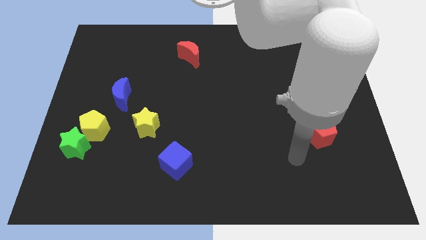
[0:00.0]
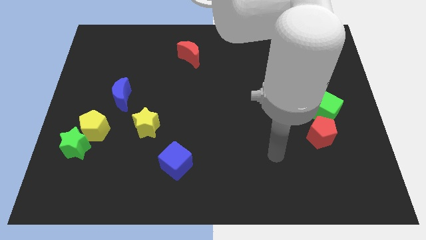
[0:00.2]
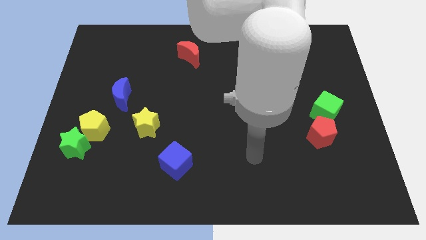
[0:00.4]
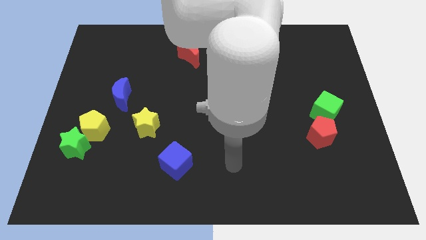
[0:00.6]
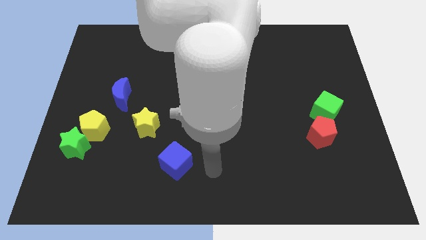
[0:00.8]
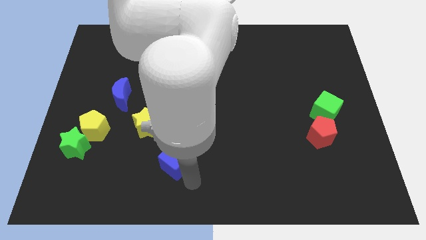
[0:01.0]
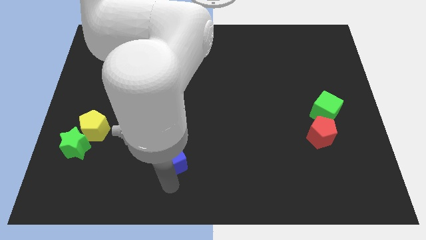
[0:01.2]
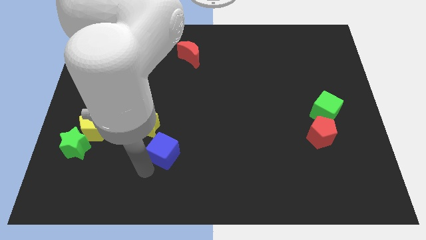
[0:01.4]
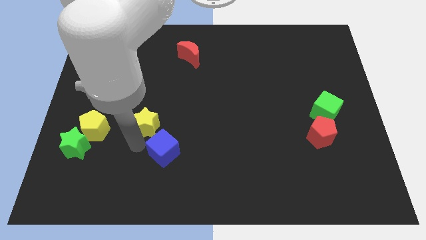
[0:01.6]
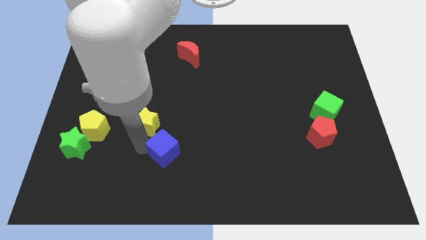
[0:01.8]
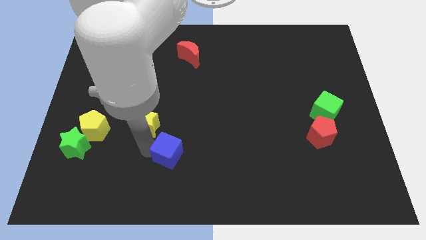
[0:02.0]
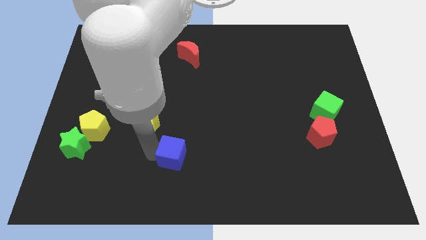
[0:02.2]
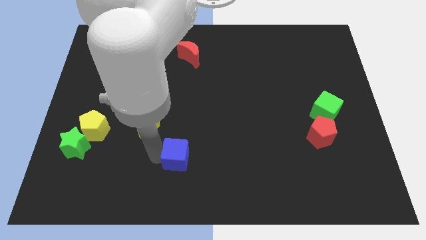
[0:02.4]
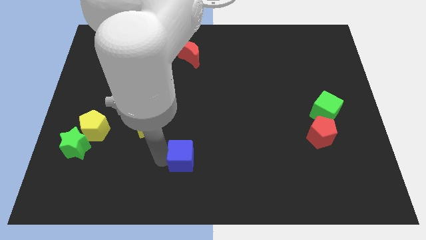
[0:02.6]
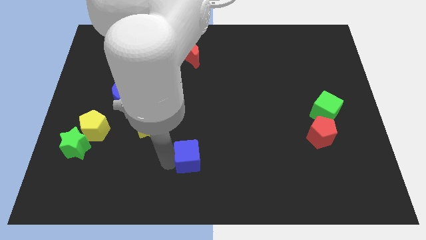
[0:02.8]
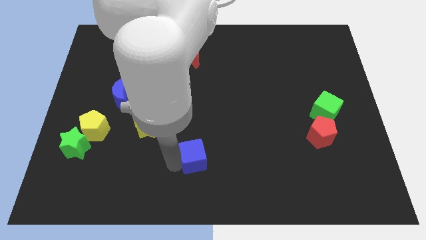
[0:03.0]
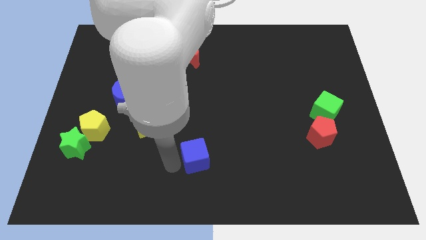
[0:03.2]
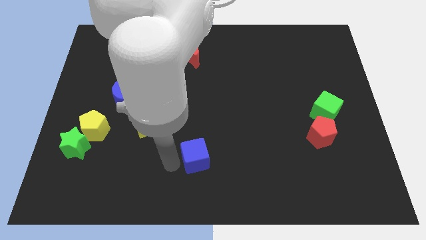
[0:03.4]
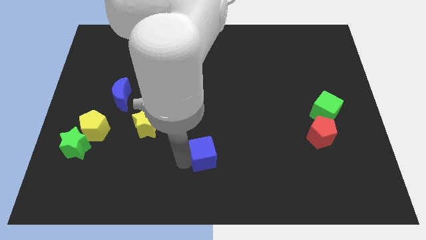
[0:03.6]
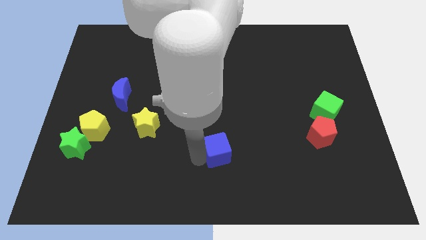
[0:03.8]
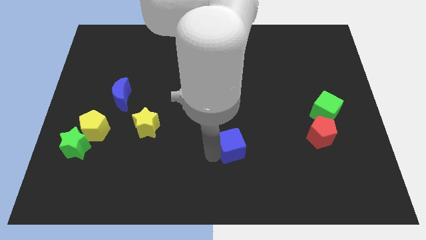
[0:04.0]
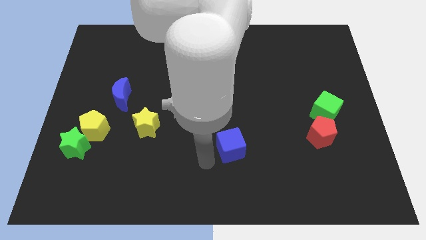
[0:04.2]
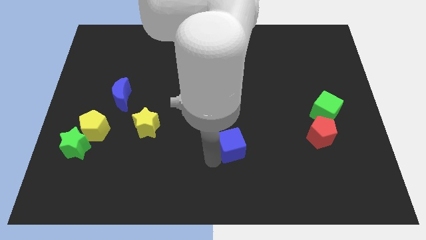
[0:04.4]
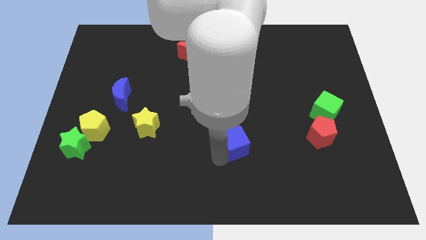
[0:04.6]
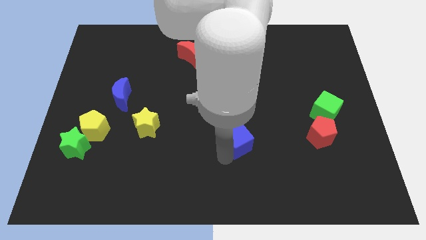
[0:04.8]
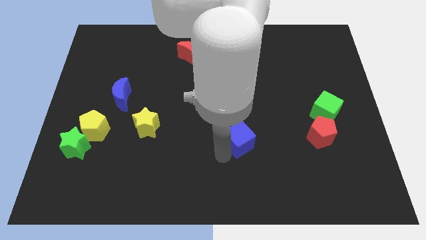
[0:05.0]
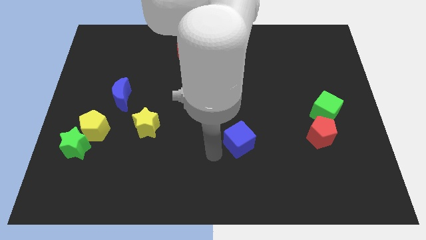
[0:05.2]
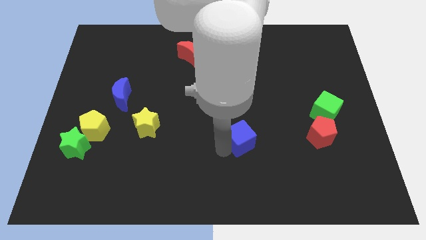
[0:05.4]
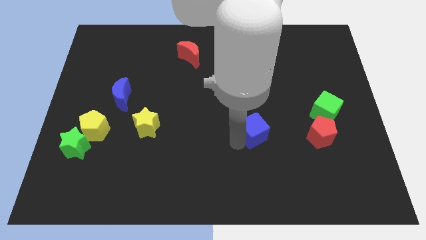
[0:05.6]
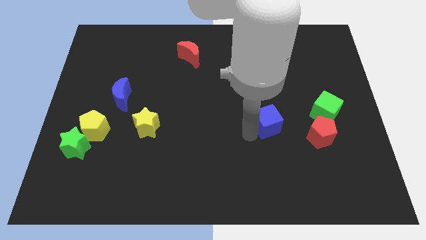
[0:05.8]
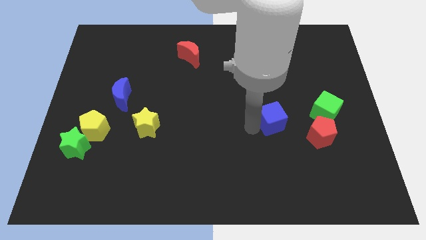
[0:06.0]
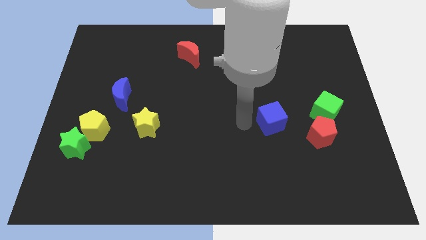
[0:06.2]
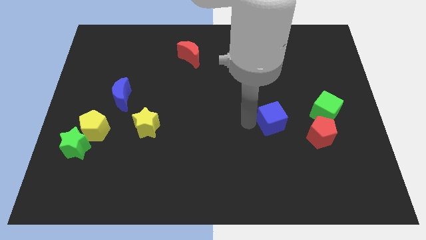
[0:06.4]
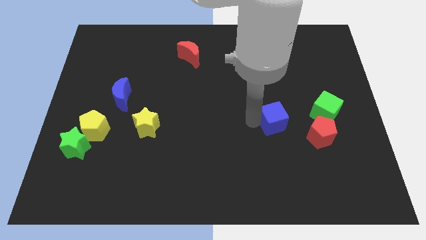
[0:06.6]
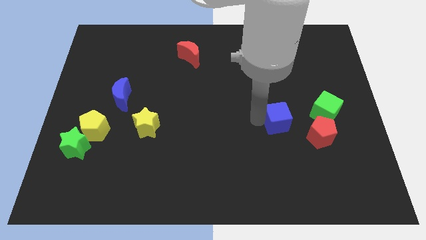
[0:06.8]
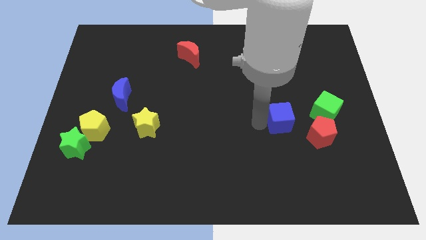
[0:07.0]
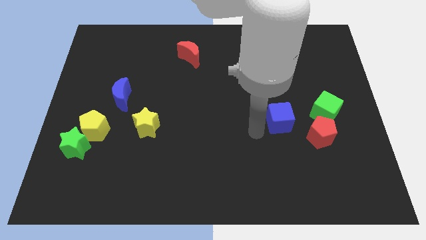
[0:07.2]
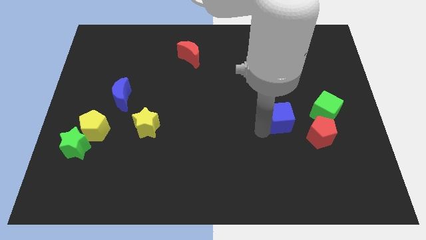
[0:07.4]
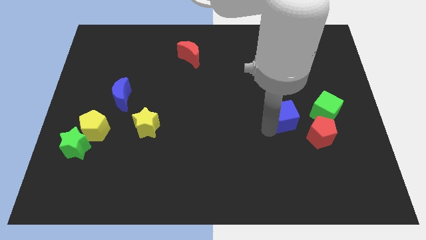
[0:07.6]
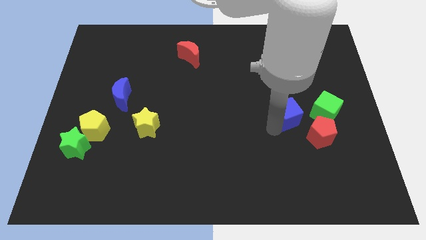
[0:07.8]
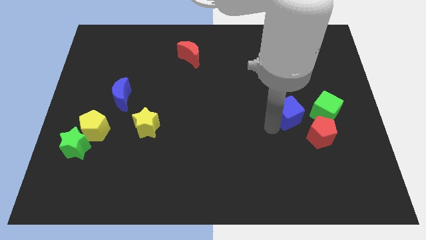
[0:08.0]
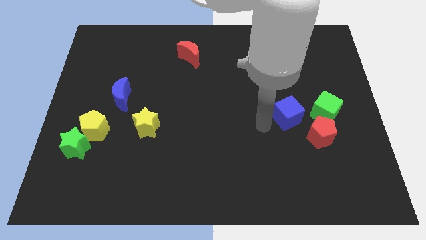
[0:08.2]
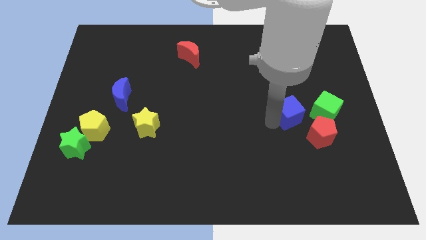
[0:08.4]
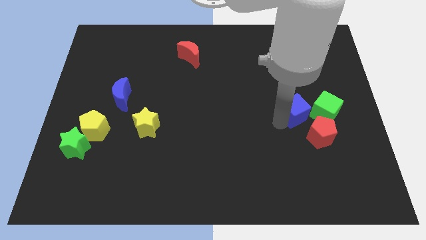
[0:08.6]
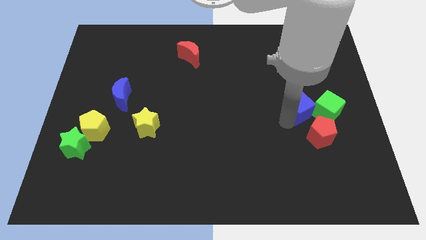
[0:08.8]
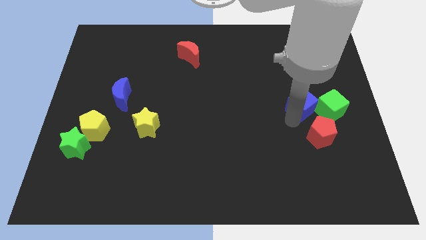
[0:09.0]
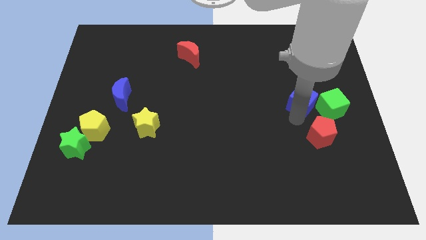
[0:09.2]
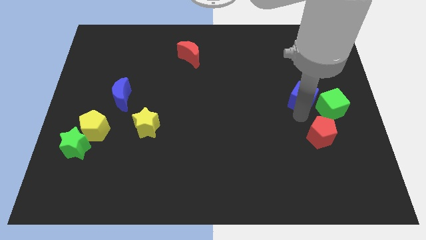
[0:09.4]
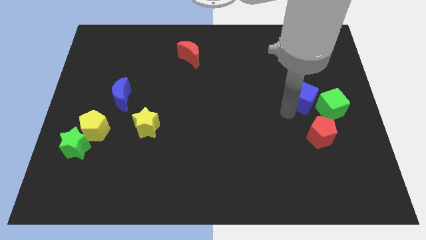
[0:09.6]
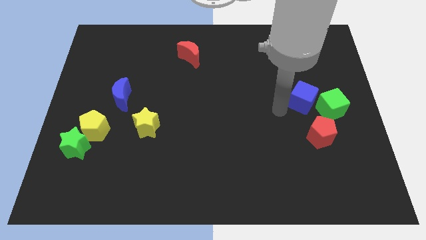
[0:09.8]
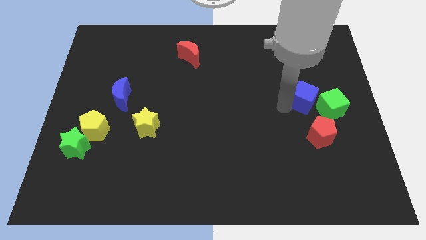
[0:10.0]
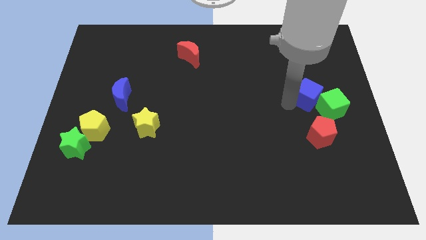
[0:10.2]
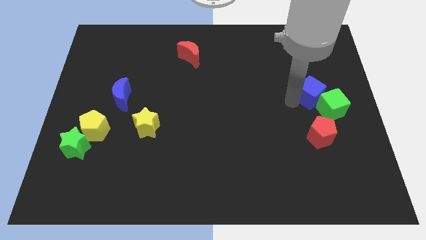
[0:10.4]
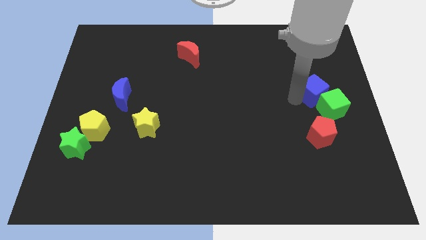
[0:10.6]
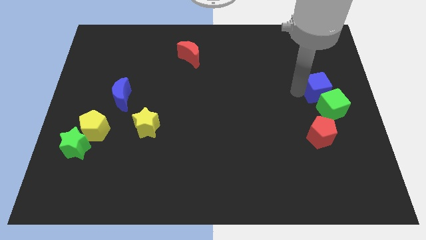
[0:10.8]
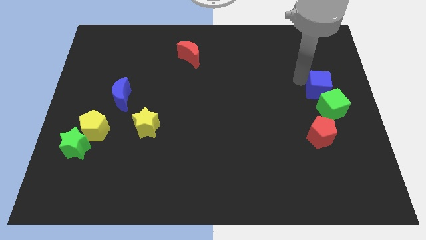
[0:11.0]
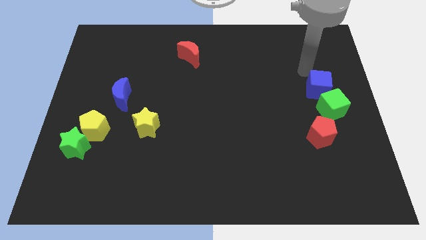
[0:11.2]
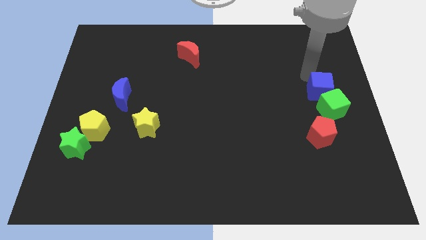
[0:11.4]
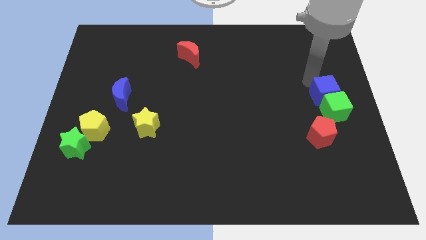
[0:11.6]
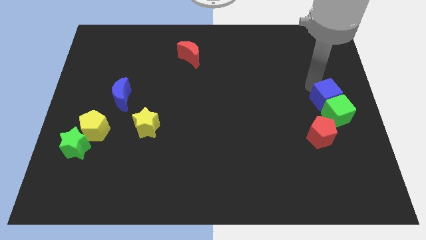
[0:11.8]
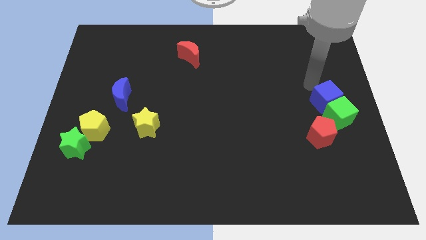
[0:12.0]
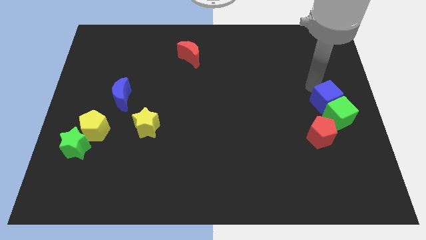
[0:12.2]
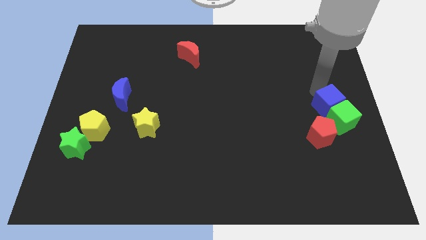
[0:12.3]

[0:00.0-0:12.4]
move the blue cube to the top right side of the red pentagon

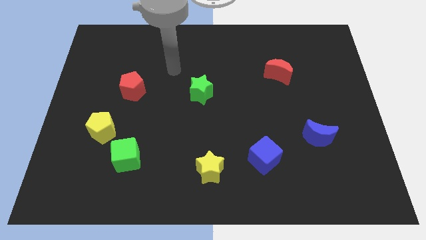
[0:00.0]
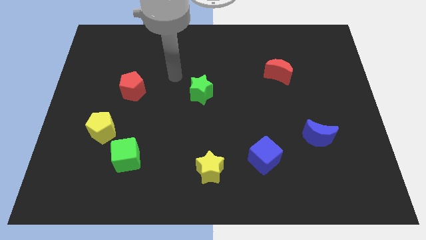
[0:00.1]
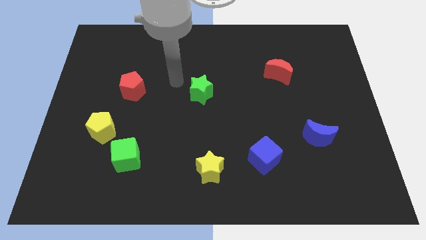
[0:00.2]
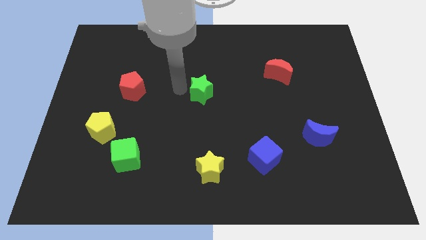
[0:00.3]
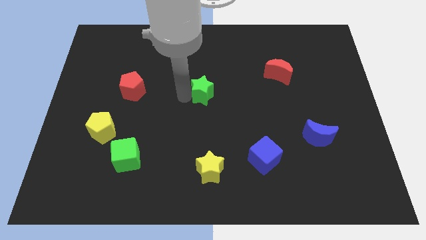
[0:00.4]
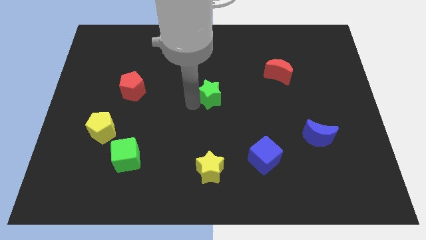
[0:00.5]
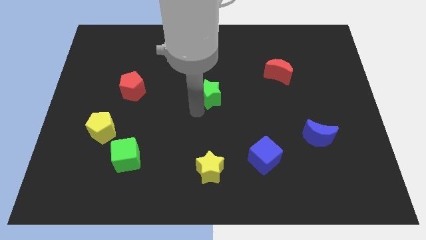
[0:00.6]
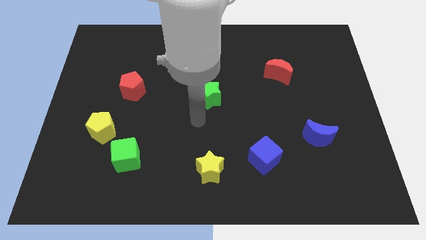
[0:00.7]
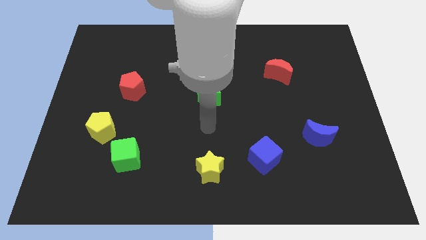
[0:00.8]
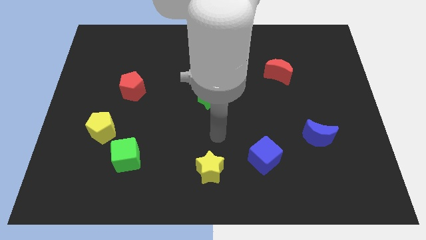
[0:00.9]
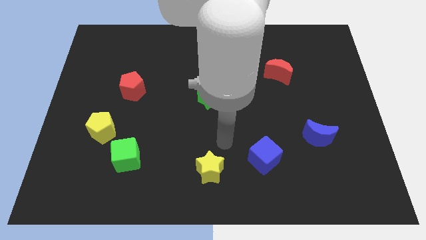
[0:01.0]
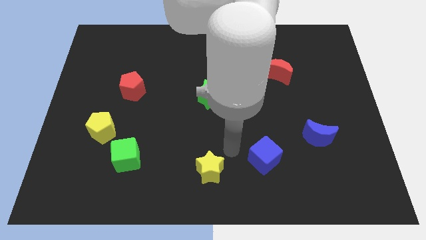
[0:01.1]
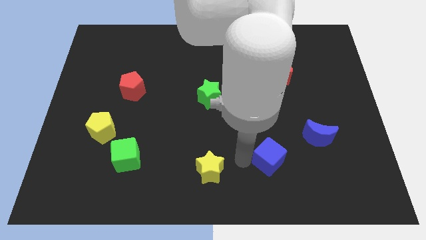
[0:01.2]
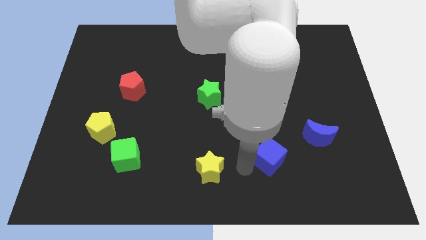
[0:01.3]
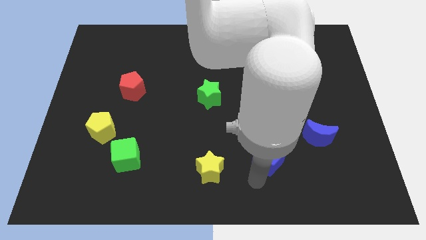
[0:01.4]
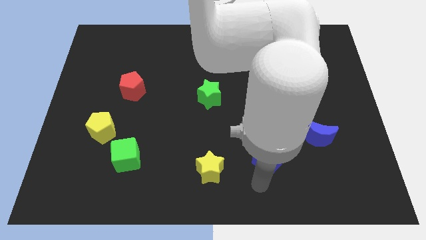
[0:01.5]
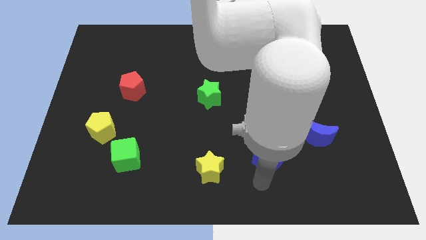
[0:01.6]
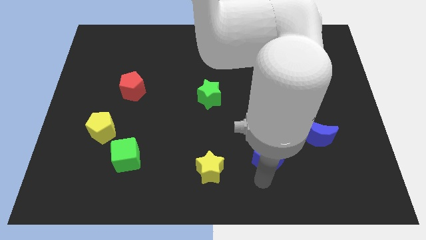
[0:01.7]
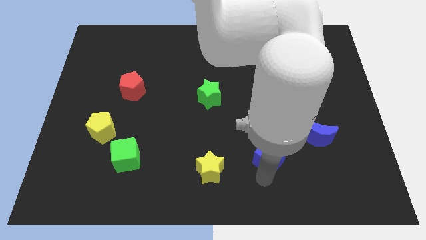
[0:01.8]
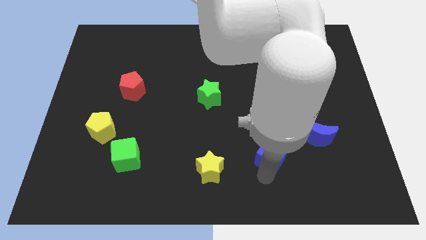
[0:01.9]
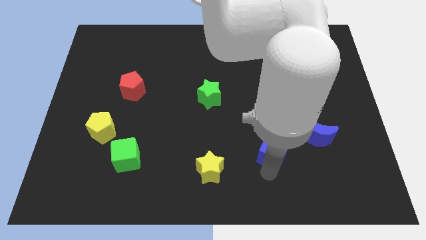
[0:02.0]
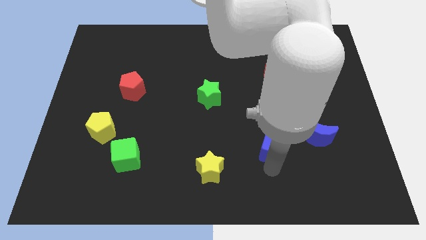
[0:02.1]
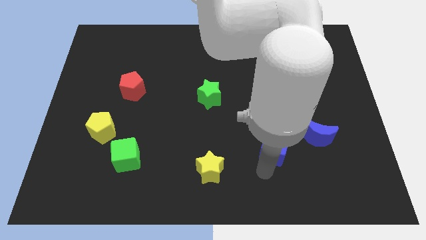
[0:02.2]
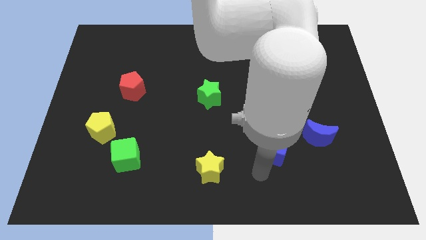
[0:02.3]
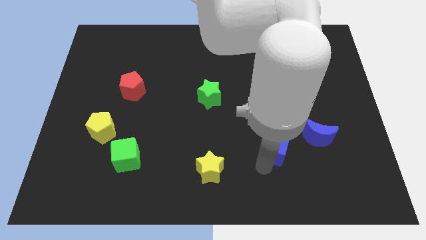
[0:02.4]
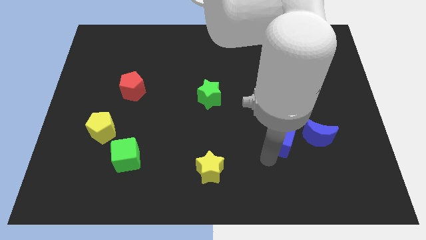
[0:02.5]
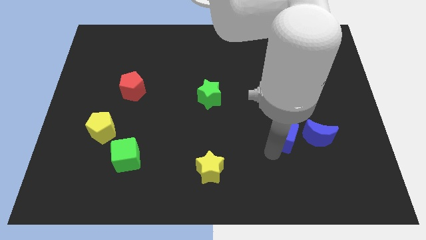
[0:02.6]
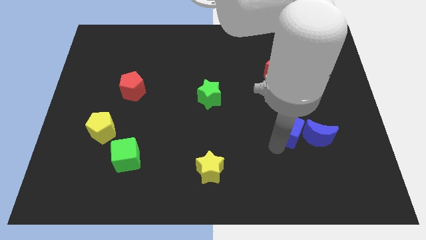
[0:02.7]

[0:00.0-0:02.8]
slide the blue cube to the top left side of the blue moon
